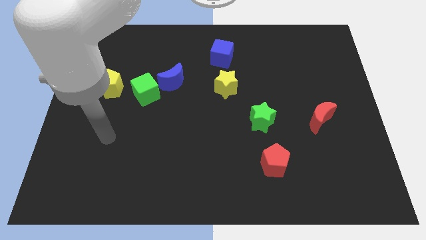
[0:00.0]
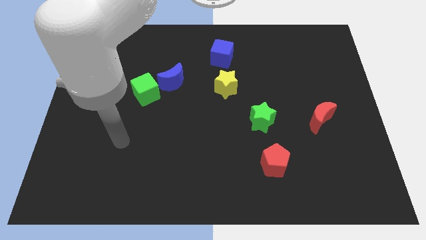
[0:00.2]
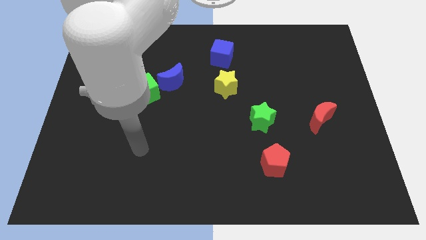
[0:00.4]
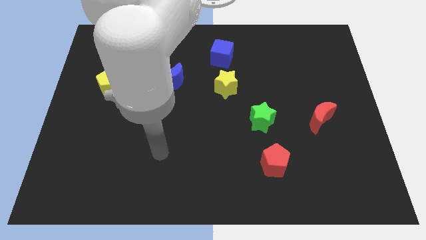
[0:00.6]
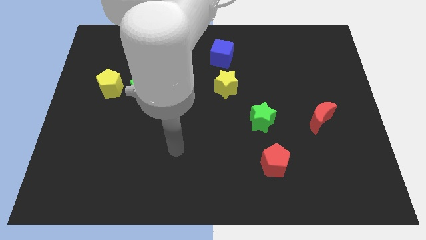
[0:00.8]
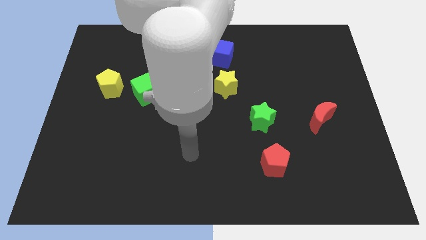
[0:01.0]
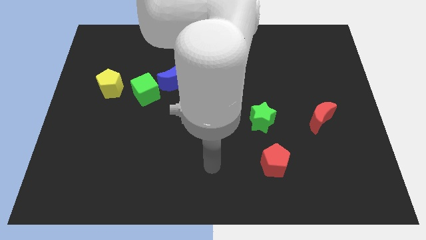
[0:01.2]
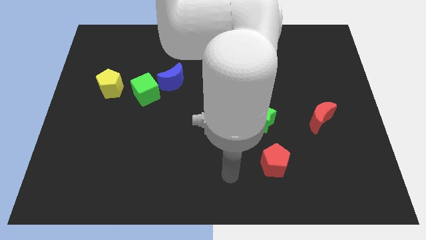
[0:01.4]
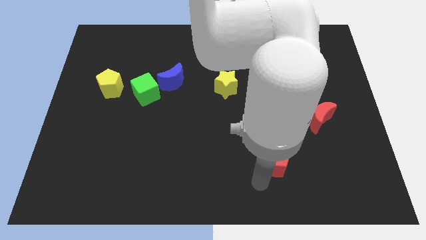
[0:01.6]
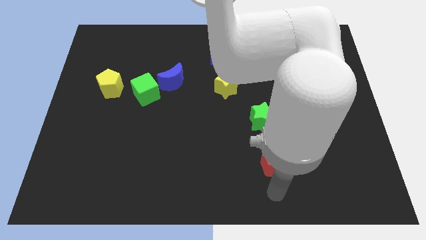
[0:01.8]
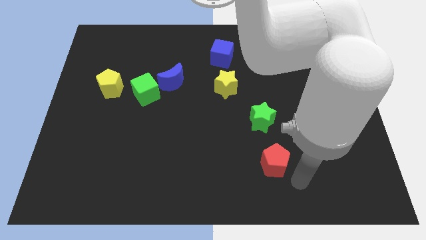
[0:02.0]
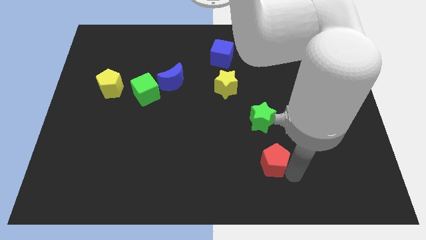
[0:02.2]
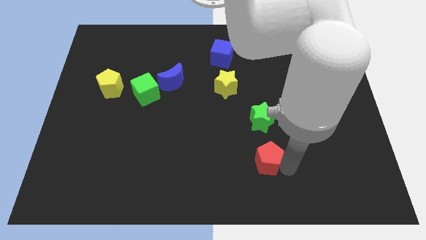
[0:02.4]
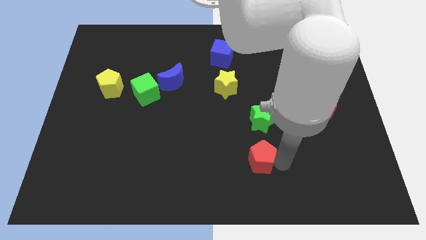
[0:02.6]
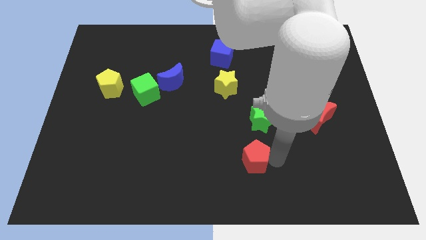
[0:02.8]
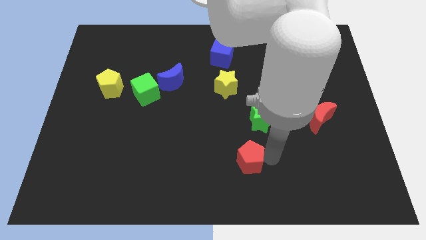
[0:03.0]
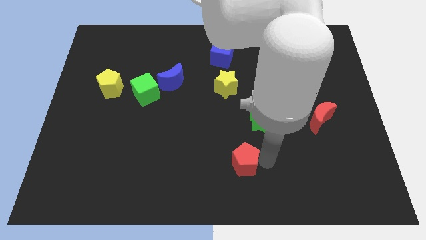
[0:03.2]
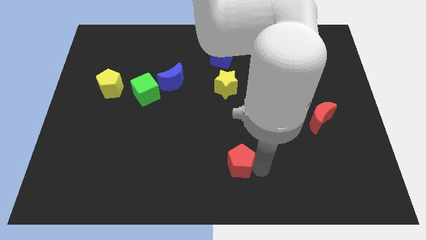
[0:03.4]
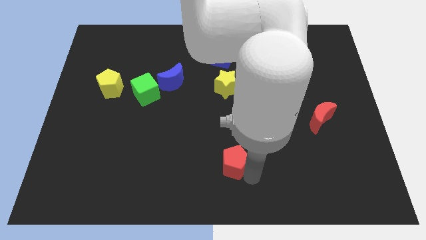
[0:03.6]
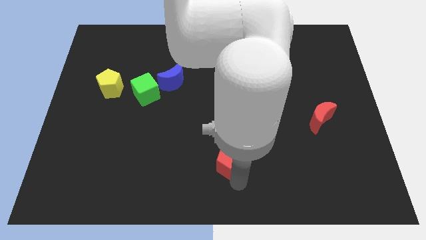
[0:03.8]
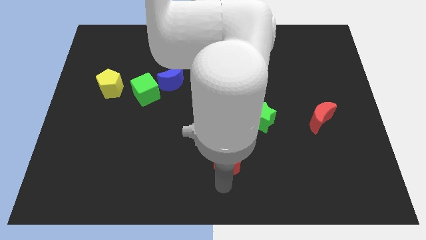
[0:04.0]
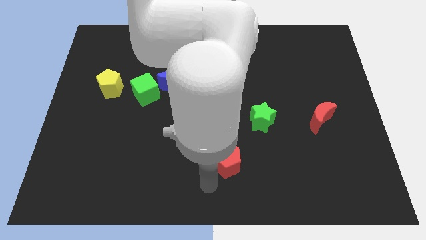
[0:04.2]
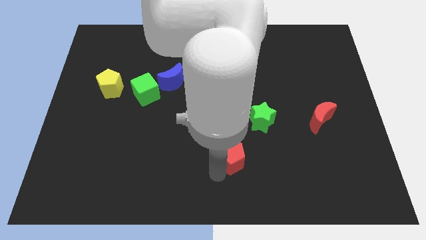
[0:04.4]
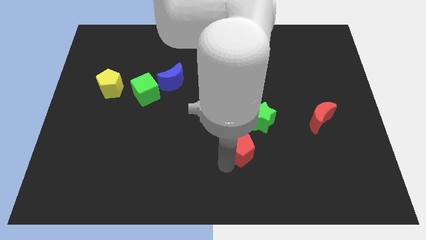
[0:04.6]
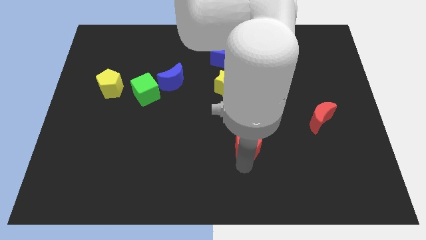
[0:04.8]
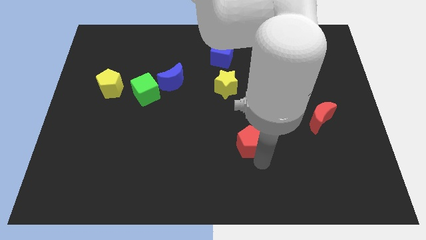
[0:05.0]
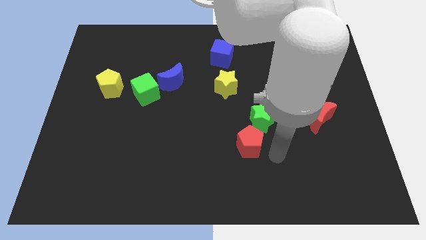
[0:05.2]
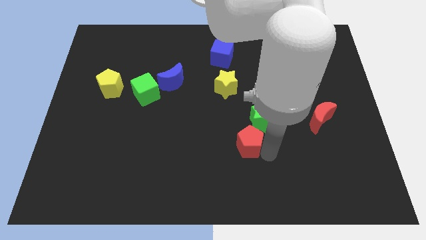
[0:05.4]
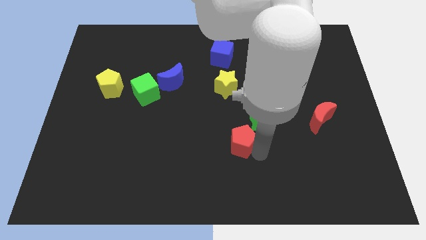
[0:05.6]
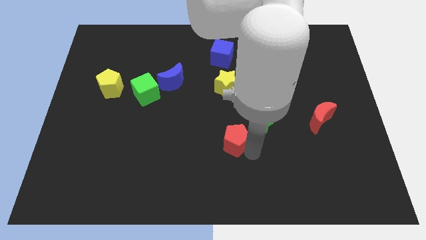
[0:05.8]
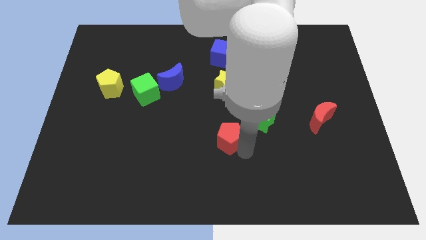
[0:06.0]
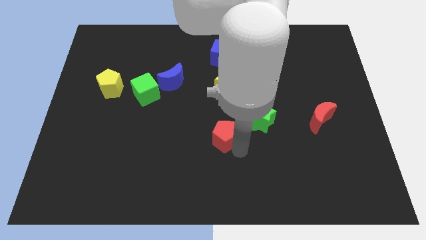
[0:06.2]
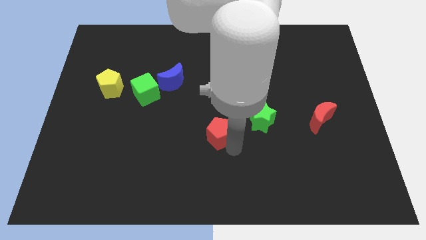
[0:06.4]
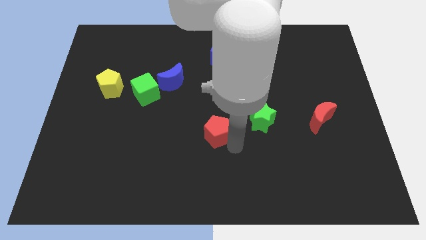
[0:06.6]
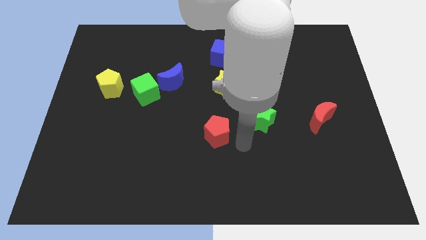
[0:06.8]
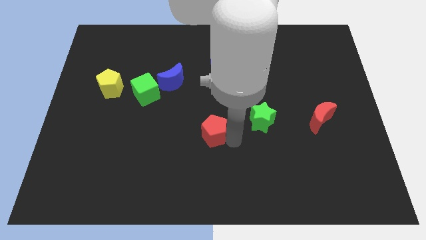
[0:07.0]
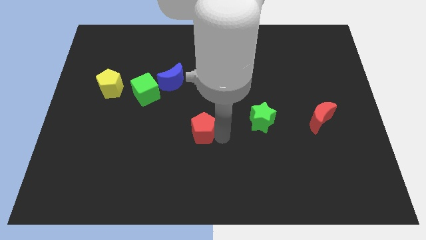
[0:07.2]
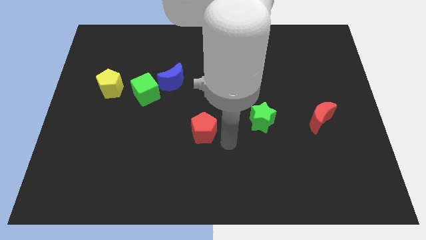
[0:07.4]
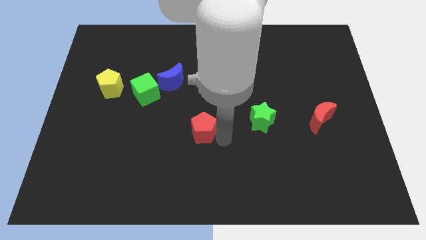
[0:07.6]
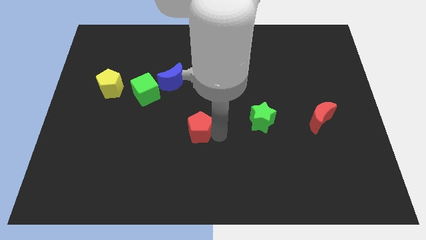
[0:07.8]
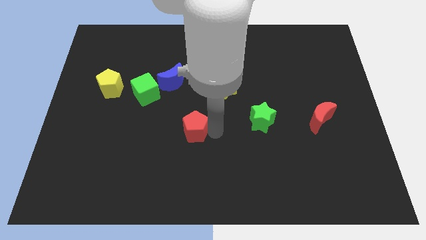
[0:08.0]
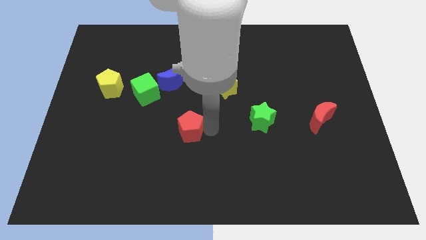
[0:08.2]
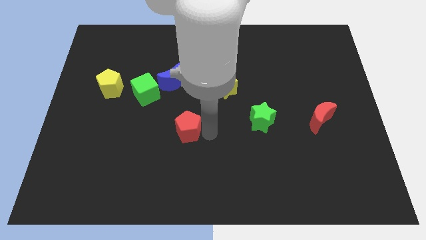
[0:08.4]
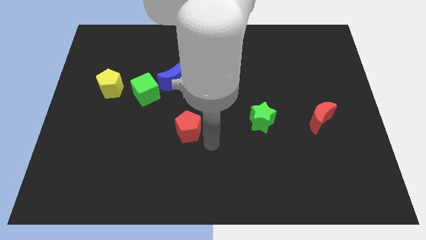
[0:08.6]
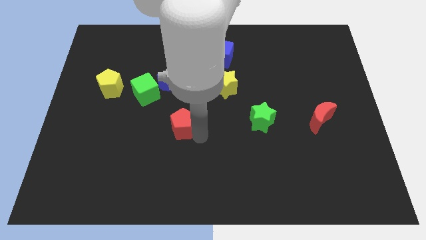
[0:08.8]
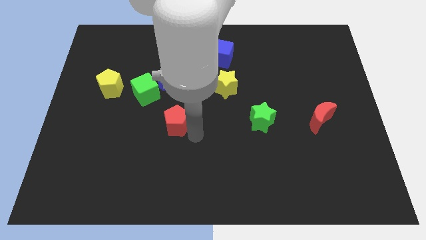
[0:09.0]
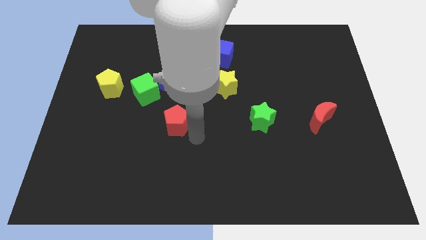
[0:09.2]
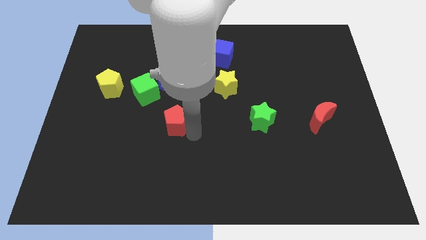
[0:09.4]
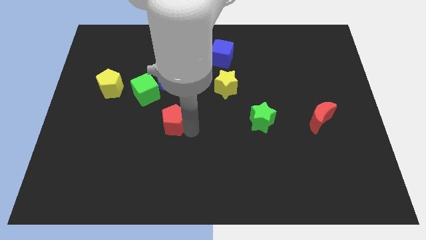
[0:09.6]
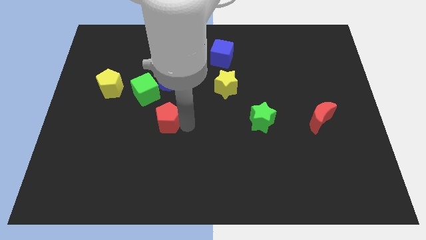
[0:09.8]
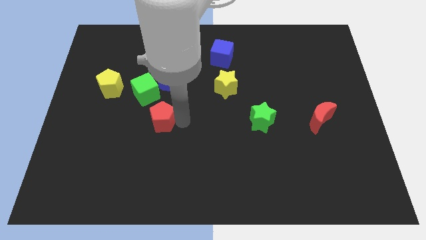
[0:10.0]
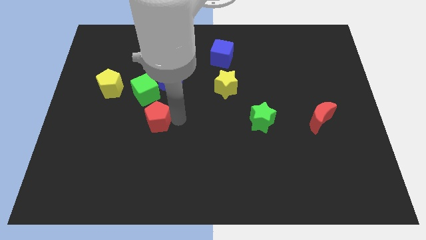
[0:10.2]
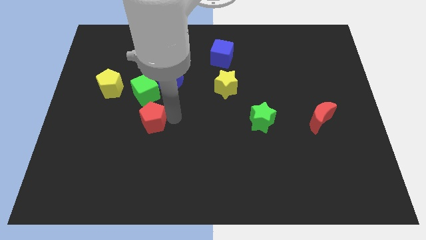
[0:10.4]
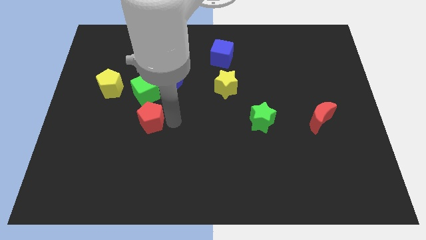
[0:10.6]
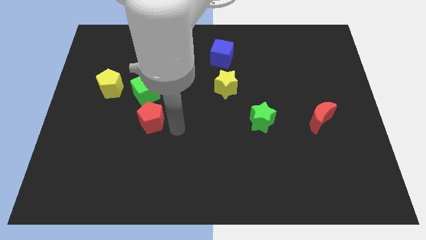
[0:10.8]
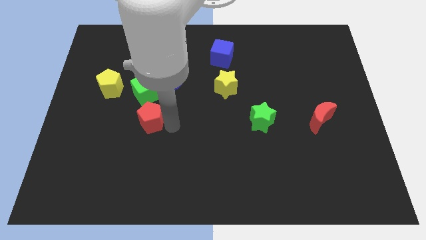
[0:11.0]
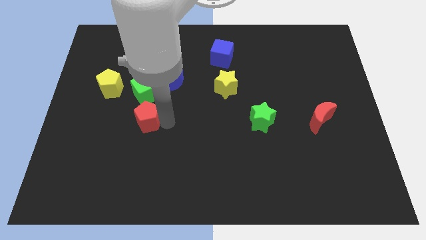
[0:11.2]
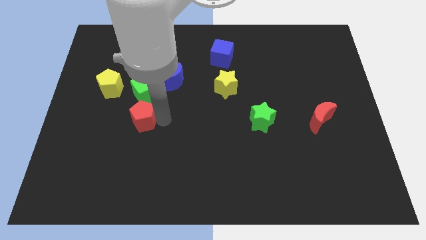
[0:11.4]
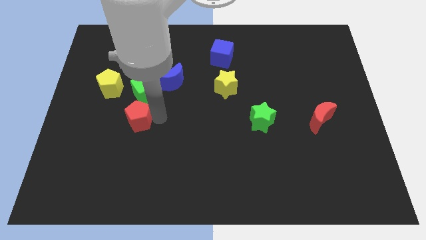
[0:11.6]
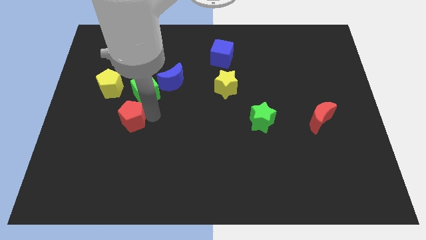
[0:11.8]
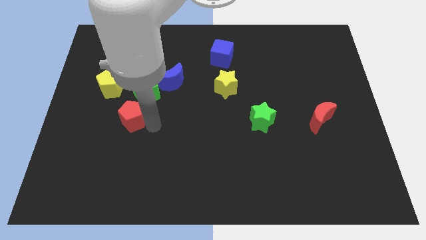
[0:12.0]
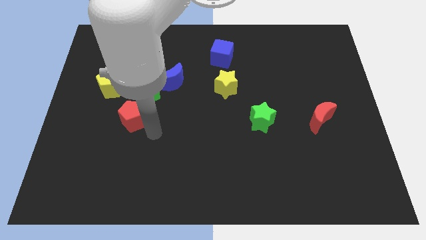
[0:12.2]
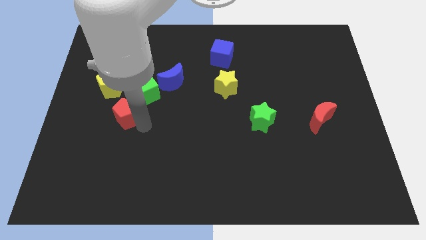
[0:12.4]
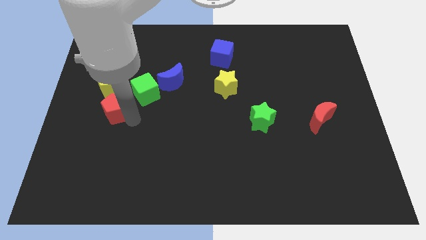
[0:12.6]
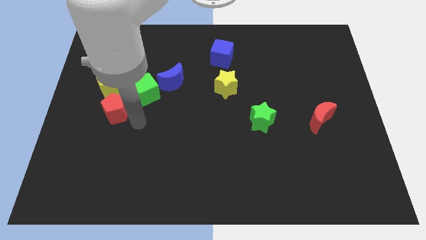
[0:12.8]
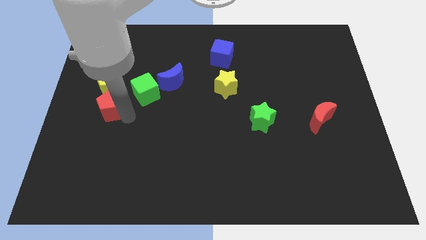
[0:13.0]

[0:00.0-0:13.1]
move the red pentagon to the left of the green cube

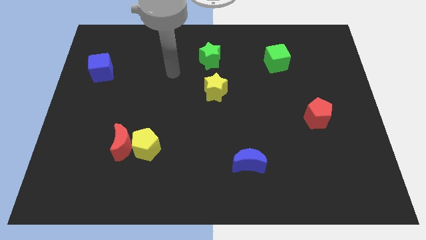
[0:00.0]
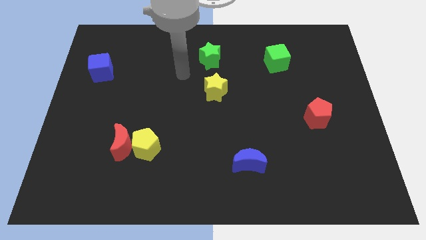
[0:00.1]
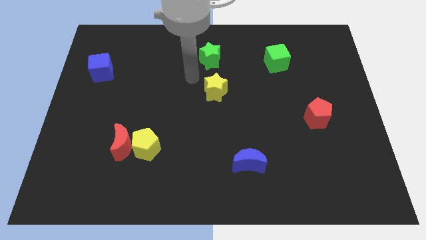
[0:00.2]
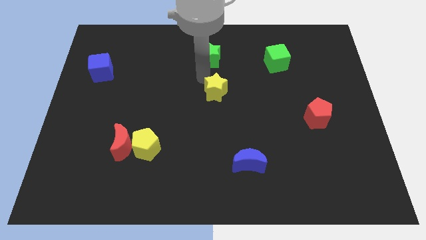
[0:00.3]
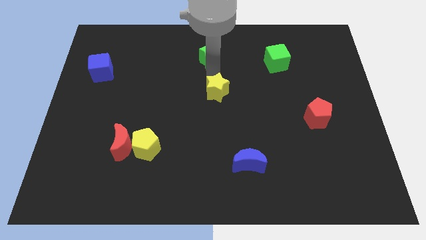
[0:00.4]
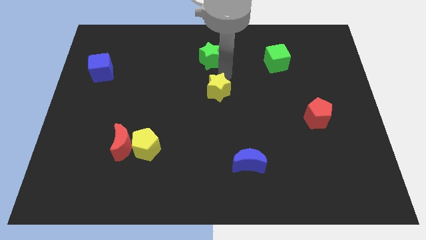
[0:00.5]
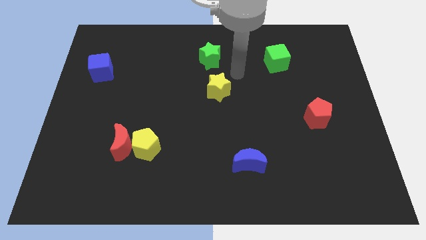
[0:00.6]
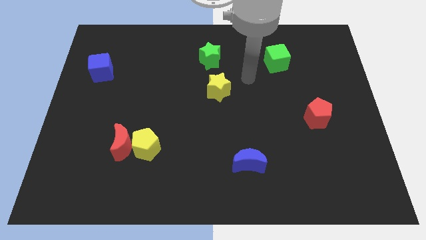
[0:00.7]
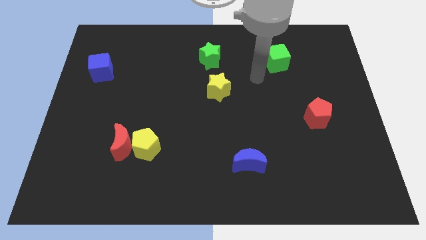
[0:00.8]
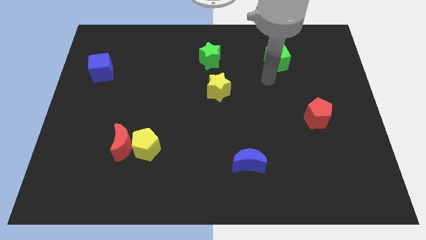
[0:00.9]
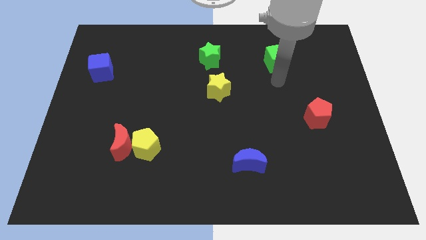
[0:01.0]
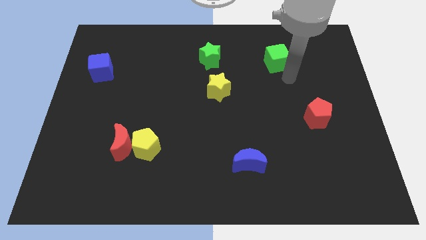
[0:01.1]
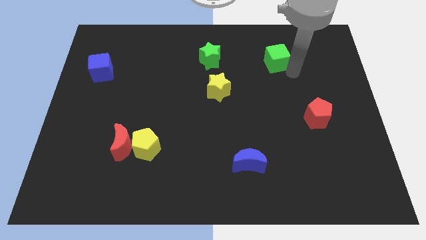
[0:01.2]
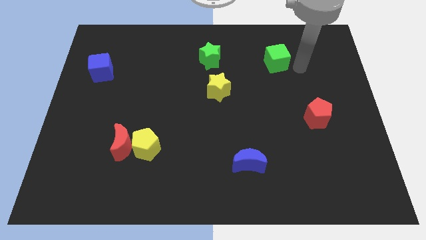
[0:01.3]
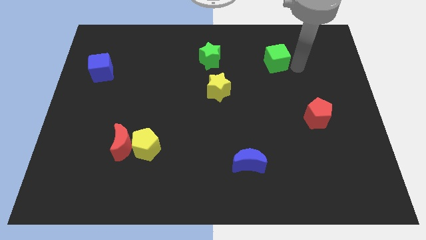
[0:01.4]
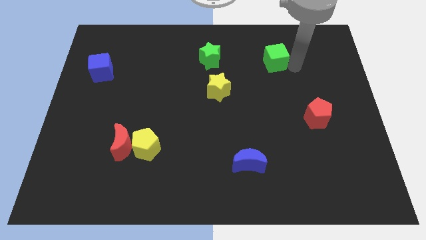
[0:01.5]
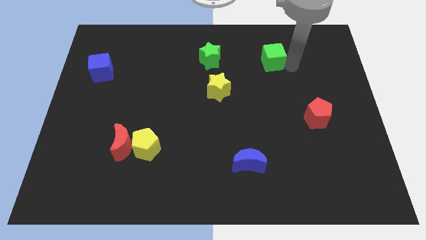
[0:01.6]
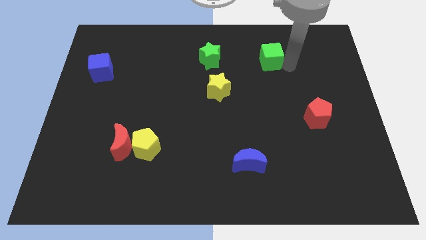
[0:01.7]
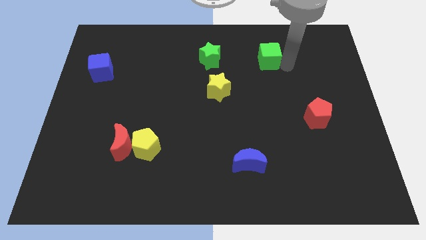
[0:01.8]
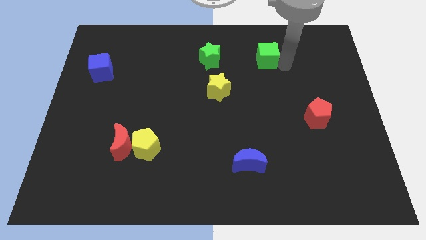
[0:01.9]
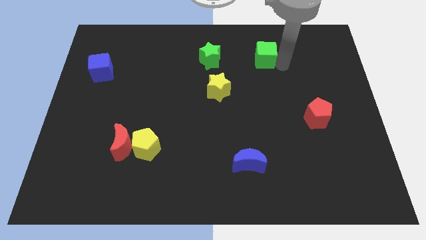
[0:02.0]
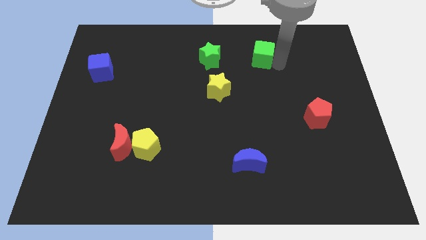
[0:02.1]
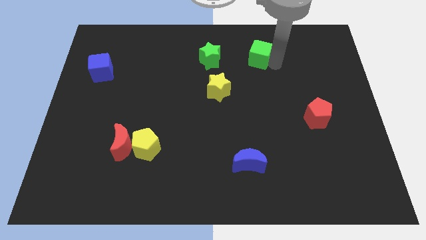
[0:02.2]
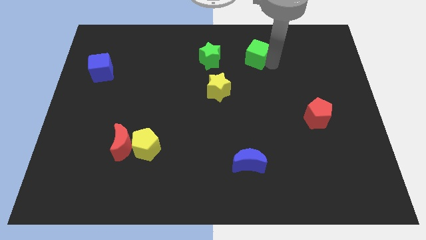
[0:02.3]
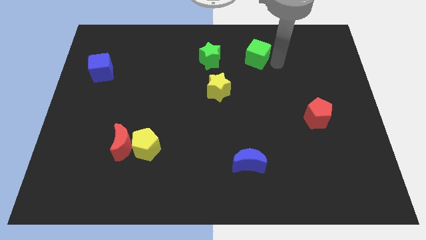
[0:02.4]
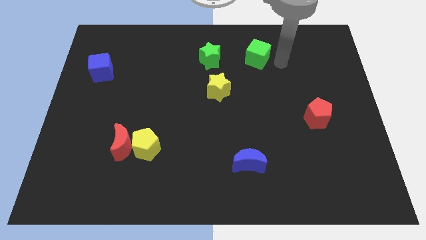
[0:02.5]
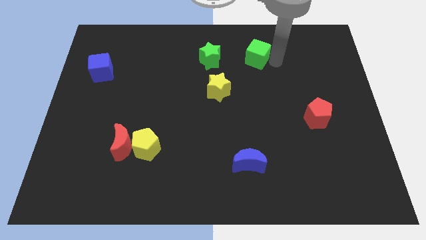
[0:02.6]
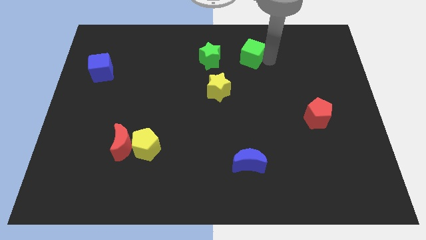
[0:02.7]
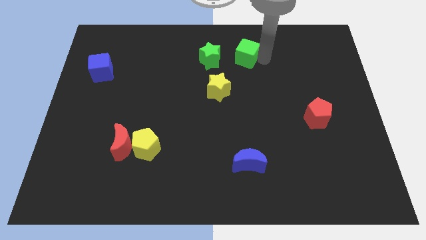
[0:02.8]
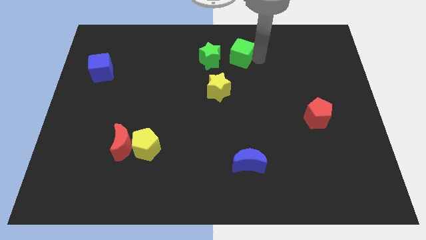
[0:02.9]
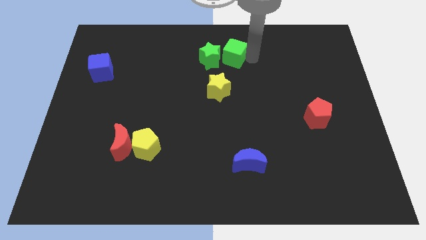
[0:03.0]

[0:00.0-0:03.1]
put the green cube above the yellow star
